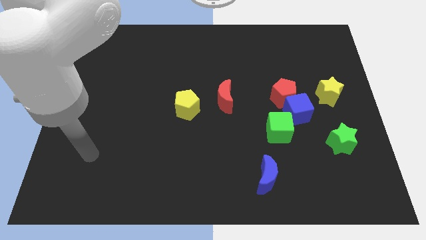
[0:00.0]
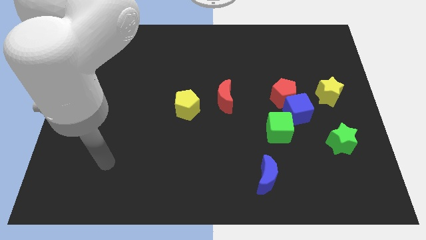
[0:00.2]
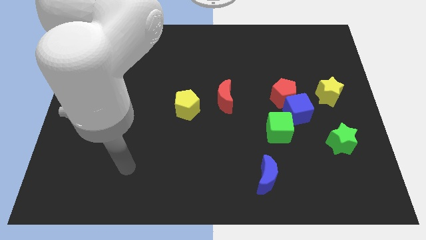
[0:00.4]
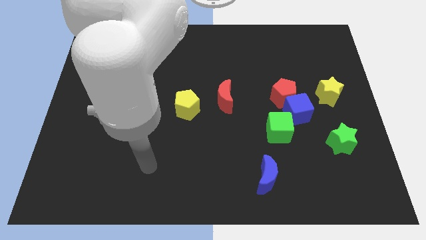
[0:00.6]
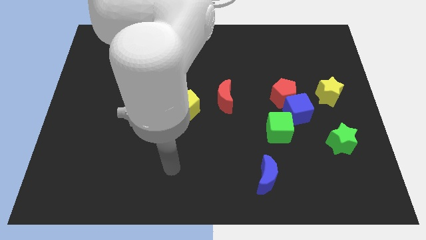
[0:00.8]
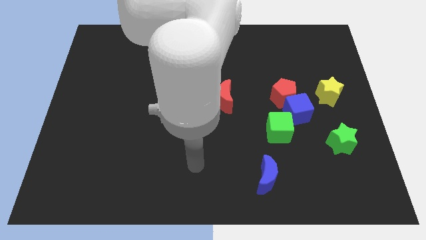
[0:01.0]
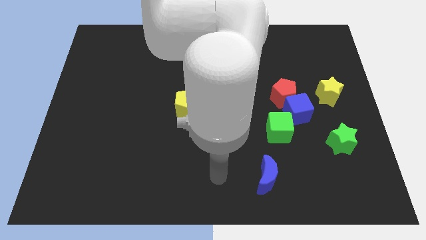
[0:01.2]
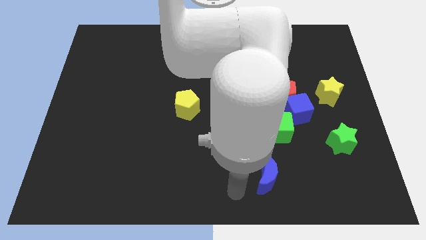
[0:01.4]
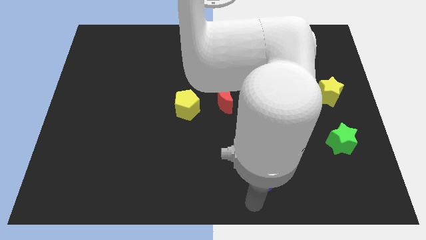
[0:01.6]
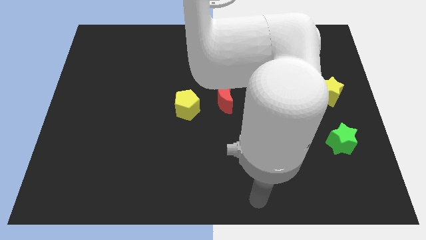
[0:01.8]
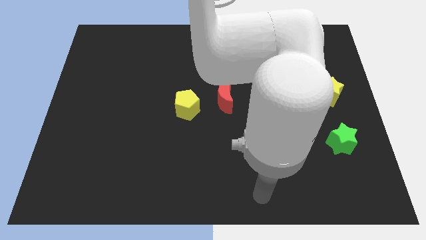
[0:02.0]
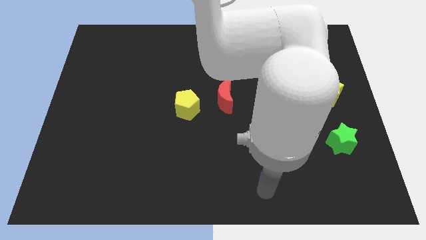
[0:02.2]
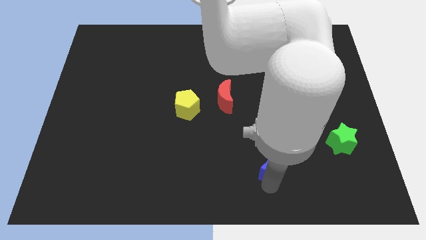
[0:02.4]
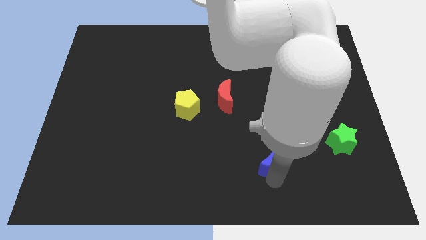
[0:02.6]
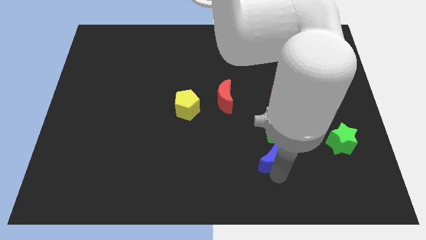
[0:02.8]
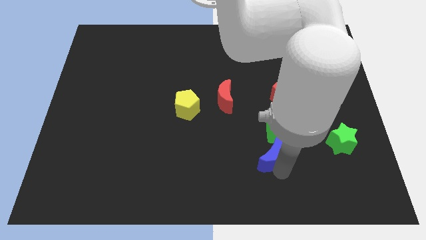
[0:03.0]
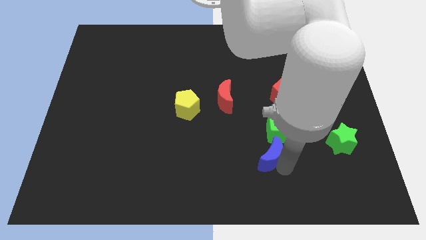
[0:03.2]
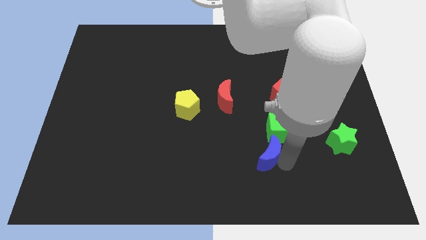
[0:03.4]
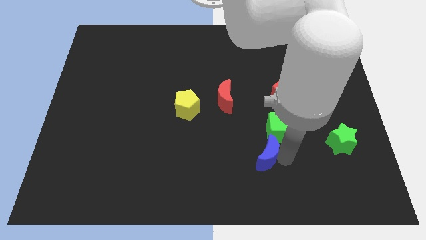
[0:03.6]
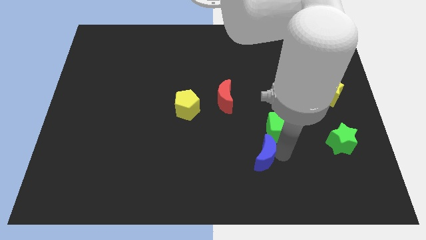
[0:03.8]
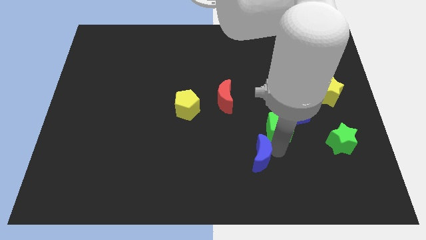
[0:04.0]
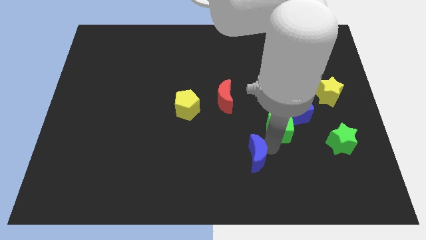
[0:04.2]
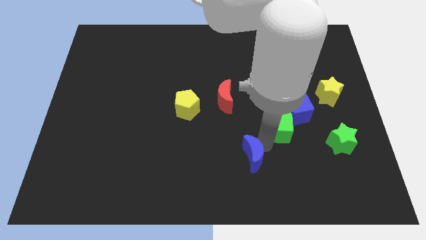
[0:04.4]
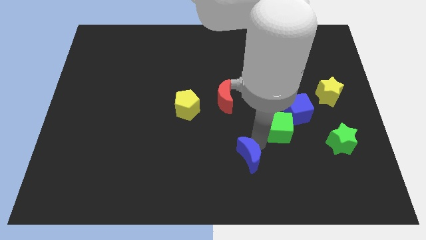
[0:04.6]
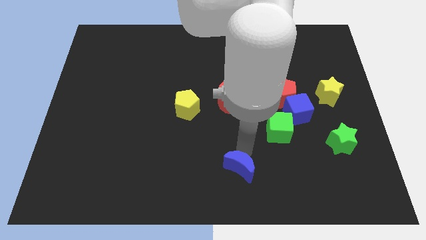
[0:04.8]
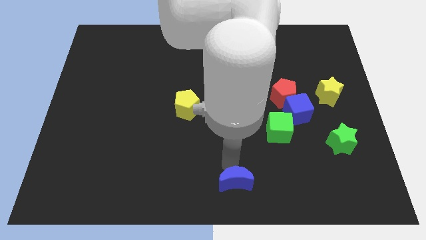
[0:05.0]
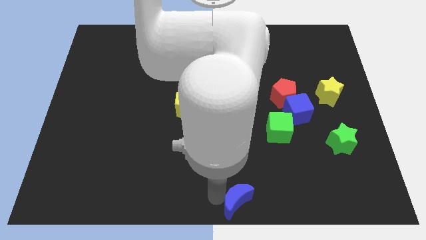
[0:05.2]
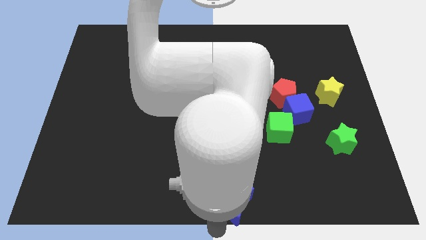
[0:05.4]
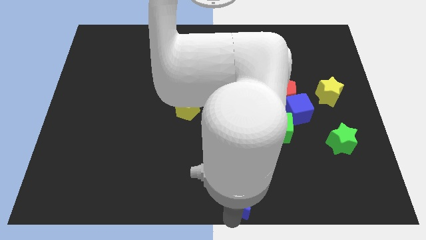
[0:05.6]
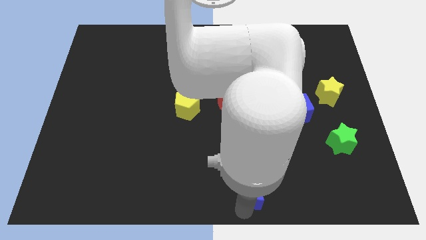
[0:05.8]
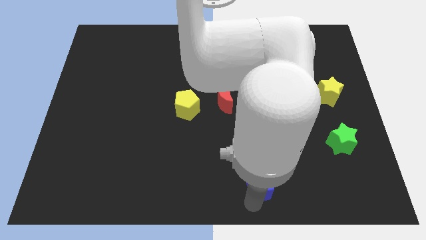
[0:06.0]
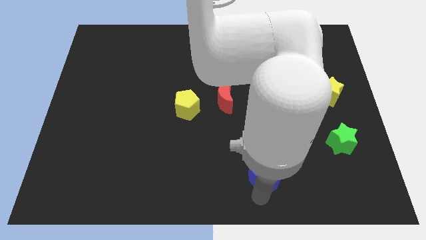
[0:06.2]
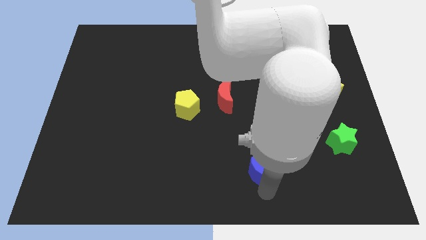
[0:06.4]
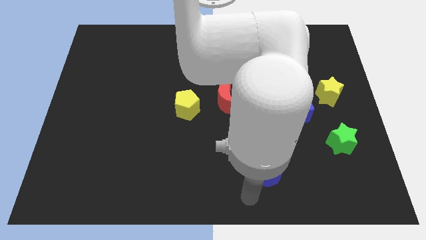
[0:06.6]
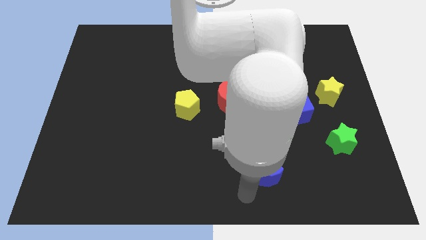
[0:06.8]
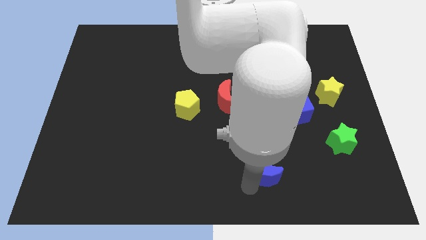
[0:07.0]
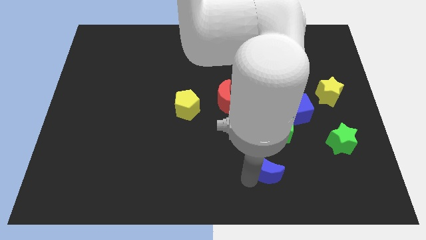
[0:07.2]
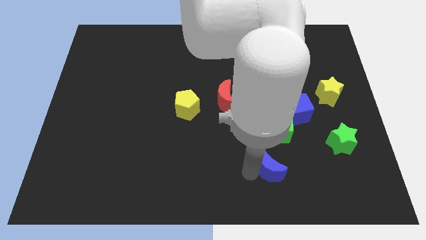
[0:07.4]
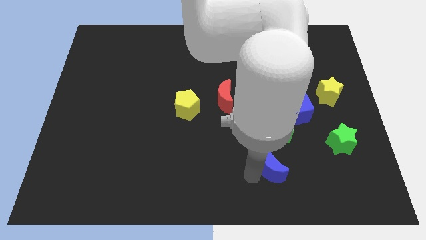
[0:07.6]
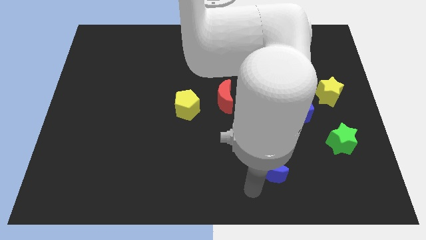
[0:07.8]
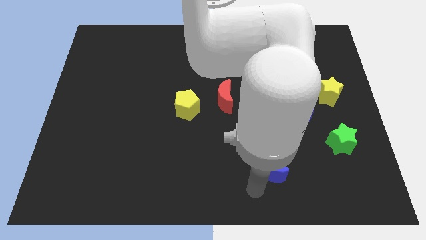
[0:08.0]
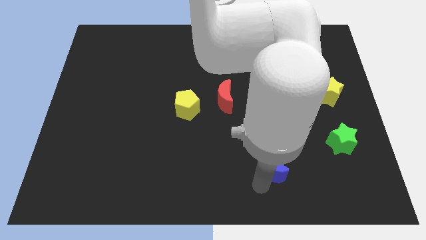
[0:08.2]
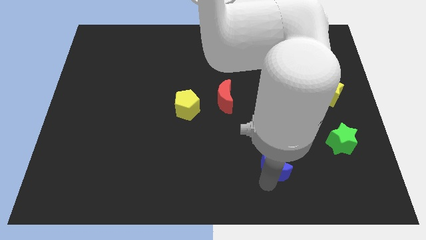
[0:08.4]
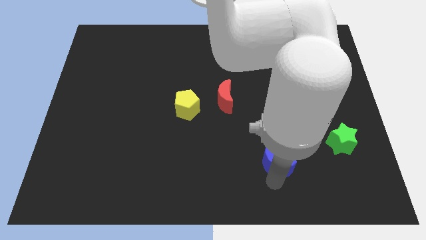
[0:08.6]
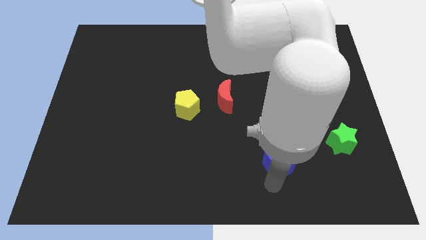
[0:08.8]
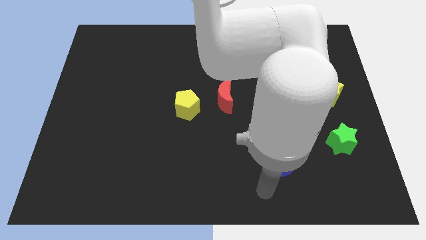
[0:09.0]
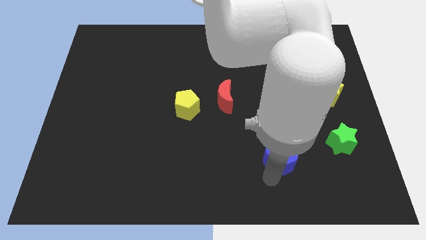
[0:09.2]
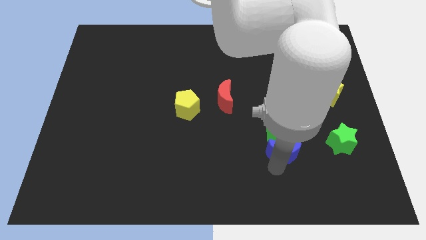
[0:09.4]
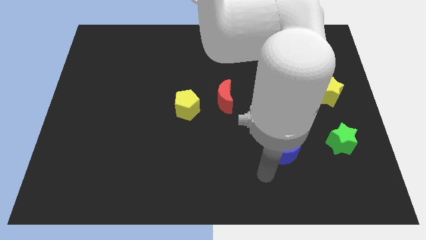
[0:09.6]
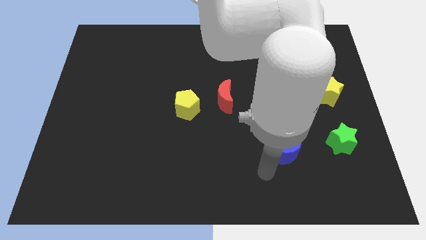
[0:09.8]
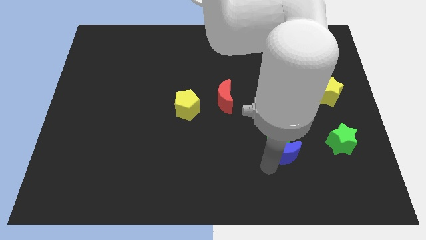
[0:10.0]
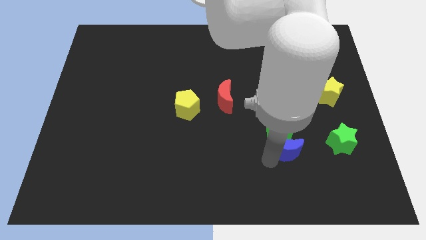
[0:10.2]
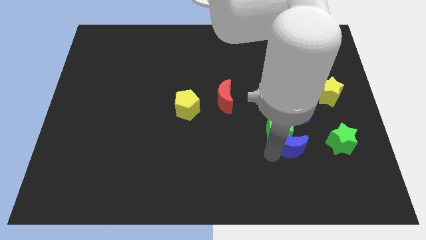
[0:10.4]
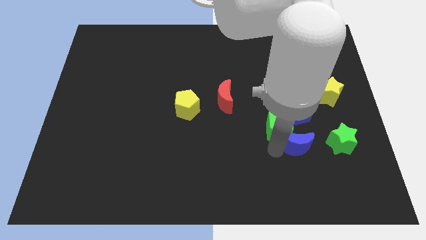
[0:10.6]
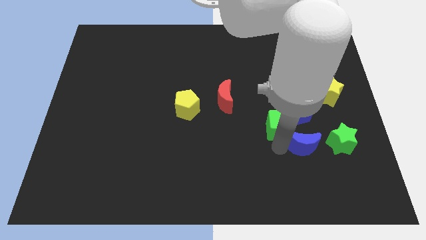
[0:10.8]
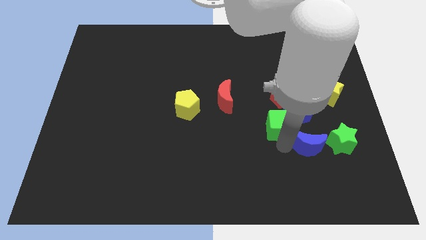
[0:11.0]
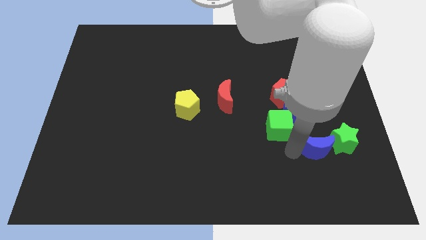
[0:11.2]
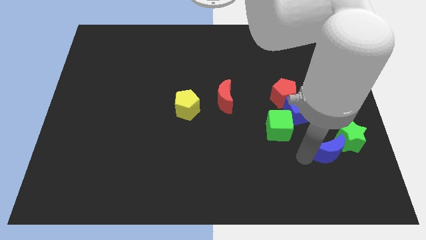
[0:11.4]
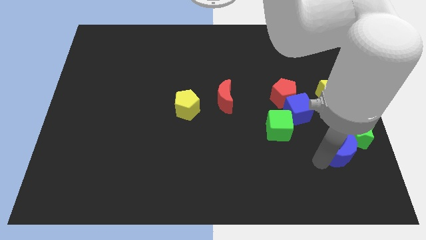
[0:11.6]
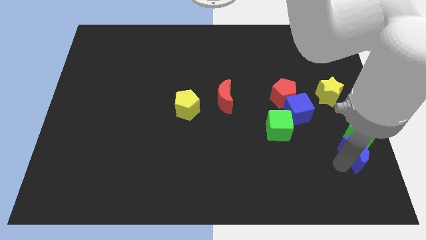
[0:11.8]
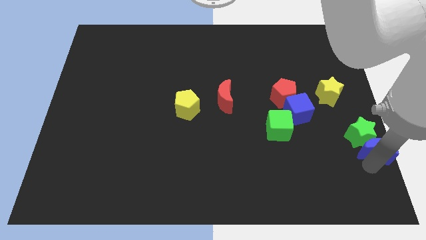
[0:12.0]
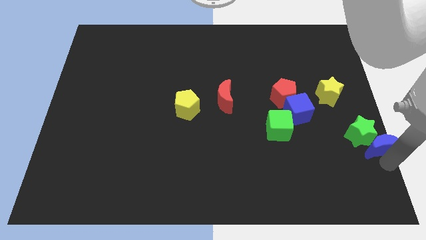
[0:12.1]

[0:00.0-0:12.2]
put the blue moon to the center right
